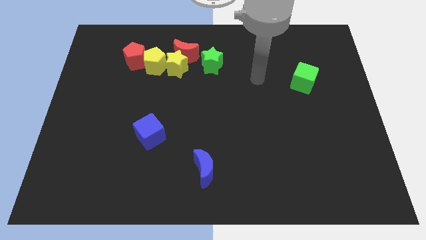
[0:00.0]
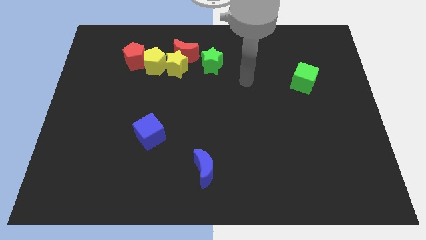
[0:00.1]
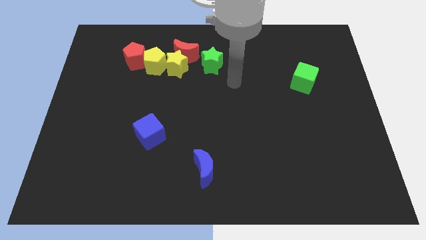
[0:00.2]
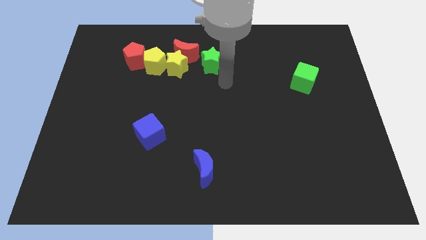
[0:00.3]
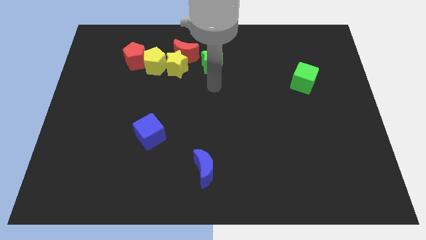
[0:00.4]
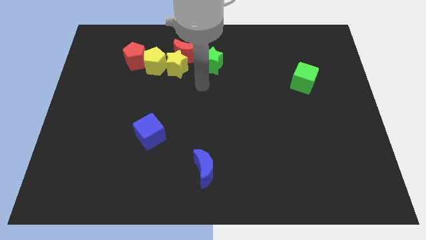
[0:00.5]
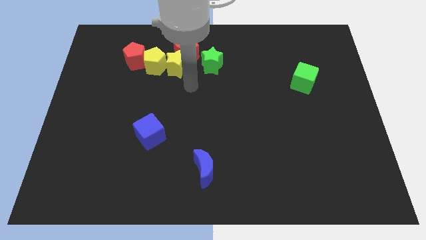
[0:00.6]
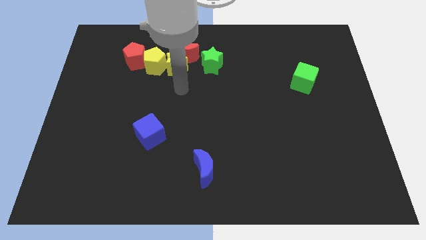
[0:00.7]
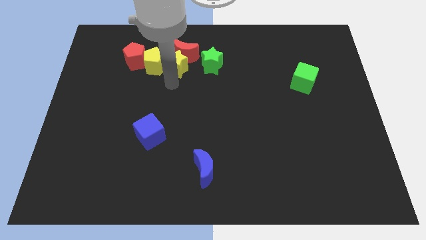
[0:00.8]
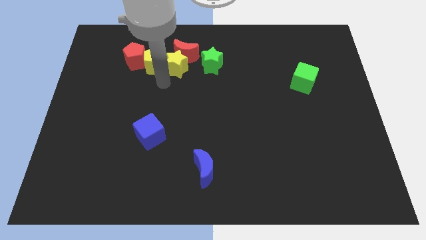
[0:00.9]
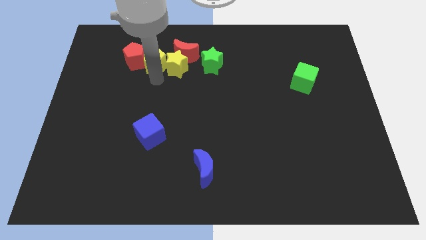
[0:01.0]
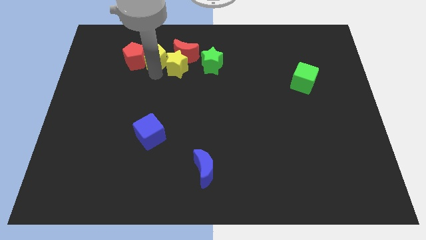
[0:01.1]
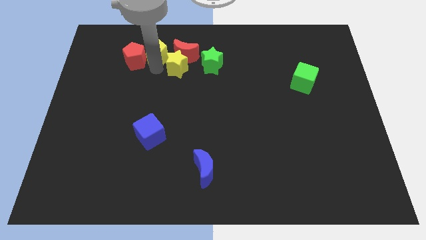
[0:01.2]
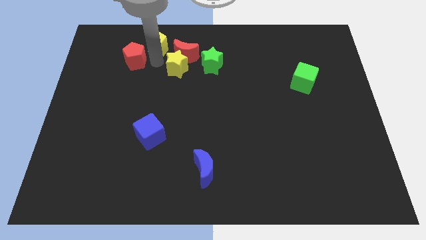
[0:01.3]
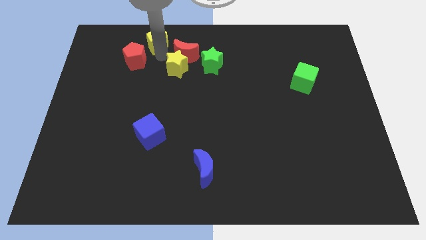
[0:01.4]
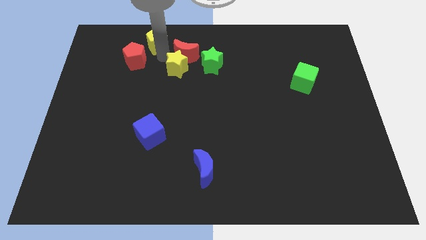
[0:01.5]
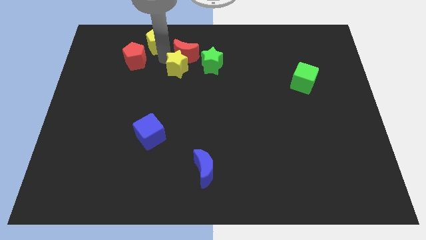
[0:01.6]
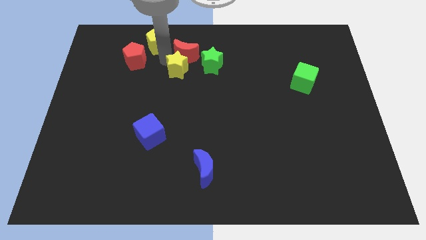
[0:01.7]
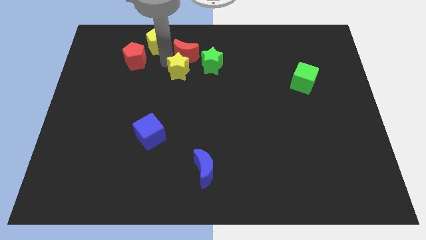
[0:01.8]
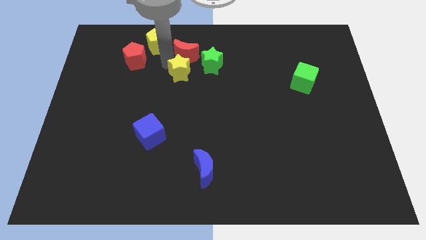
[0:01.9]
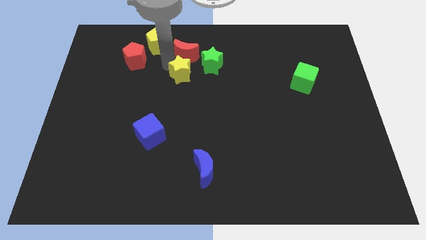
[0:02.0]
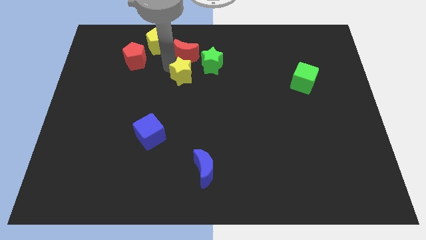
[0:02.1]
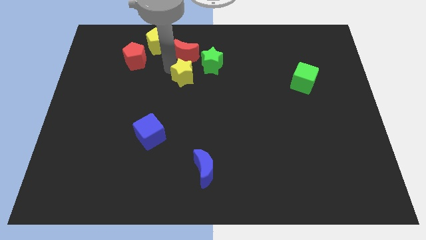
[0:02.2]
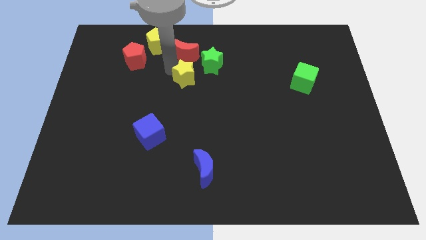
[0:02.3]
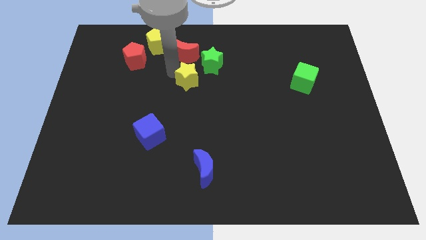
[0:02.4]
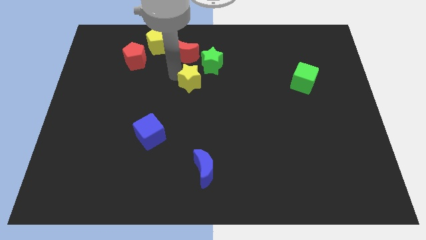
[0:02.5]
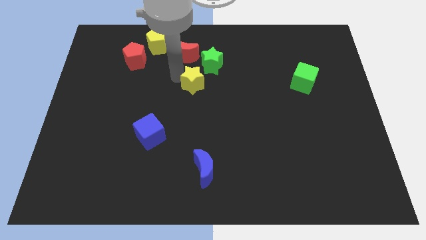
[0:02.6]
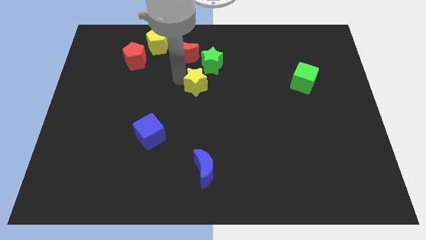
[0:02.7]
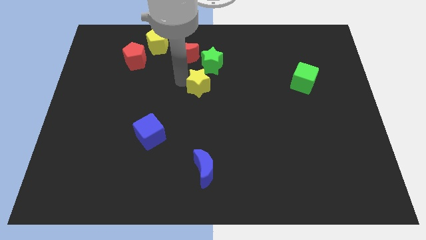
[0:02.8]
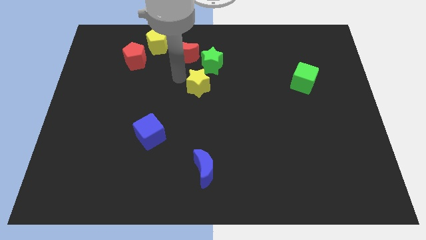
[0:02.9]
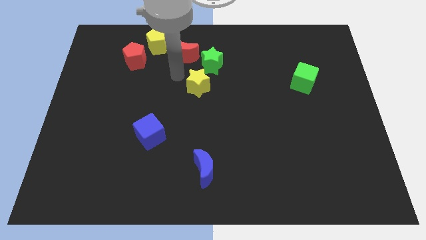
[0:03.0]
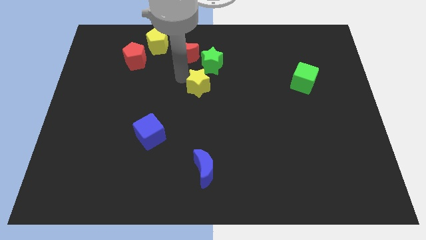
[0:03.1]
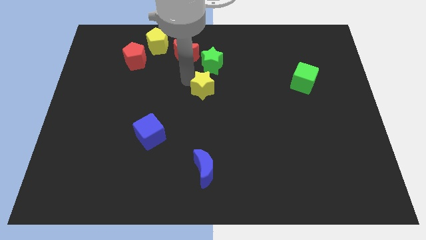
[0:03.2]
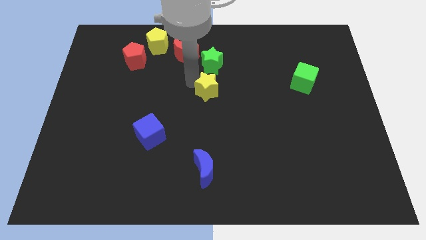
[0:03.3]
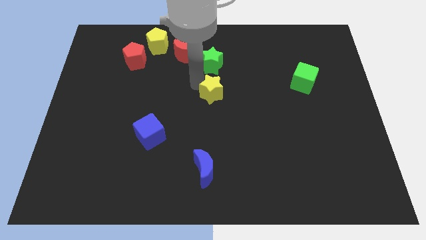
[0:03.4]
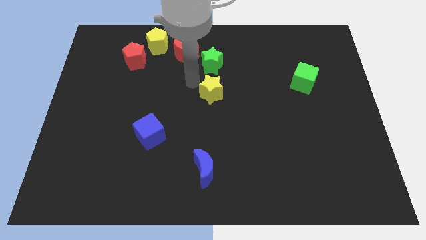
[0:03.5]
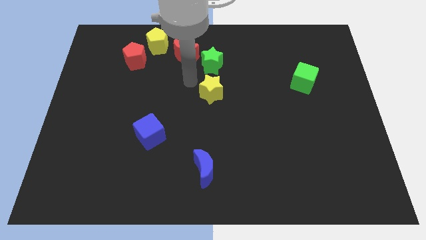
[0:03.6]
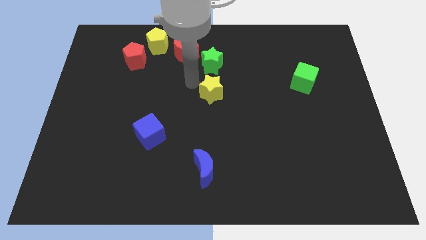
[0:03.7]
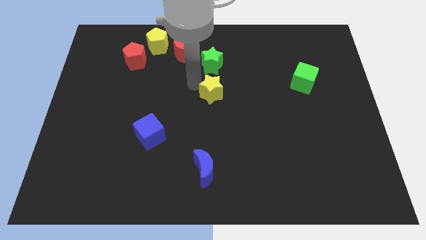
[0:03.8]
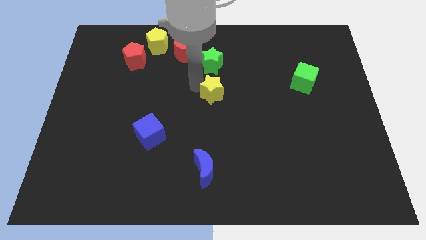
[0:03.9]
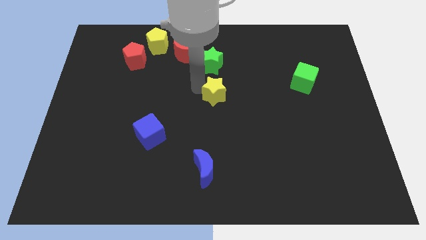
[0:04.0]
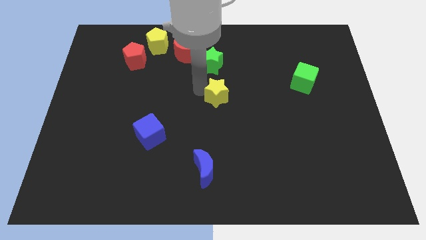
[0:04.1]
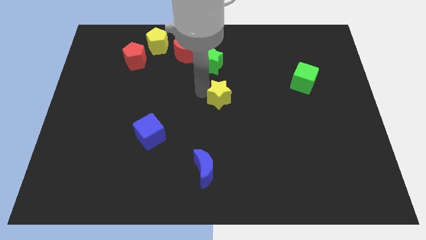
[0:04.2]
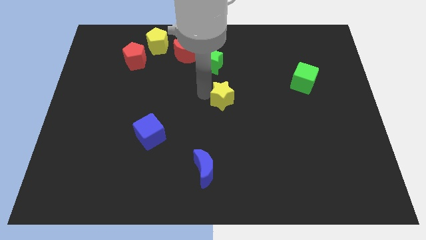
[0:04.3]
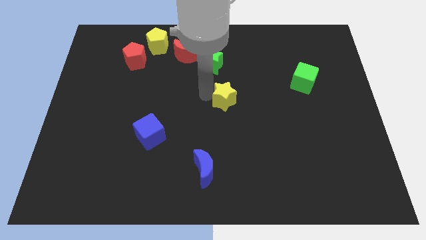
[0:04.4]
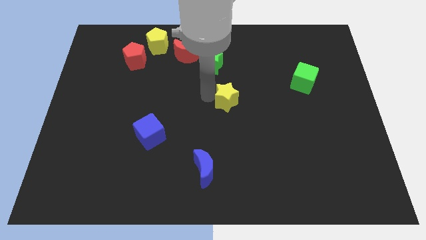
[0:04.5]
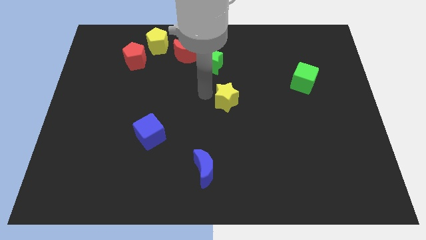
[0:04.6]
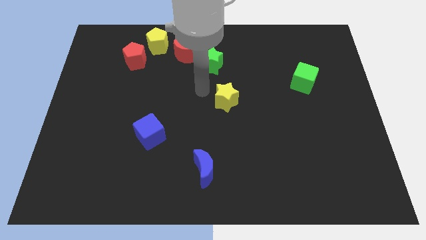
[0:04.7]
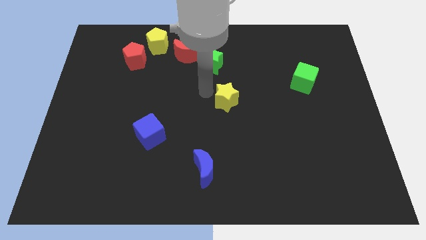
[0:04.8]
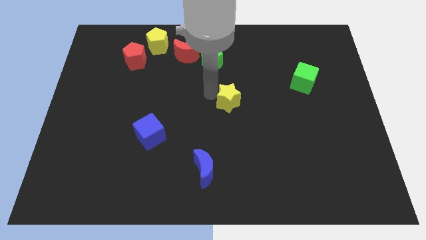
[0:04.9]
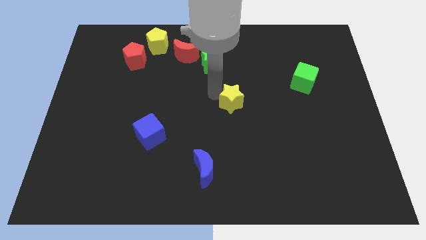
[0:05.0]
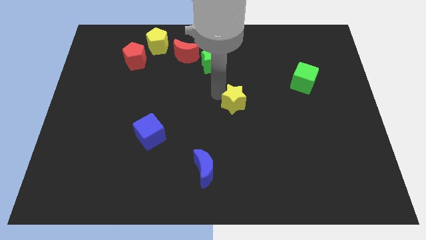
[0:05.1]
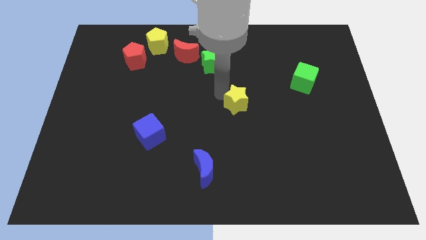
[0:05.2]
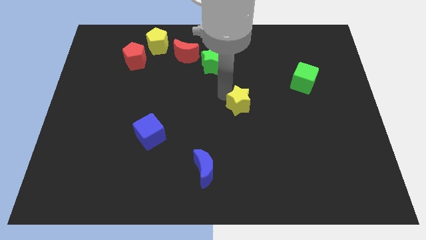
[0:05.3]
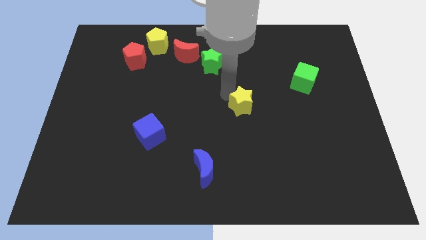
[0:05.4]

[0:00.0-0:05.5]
push the yellow star down and to the right

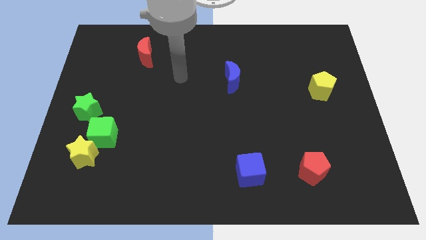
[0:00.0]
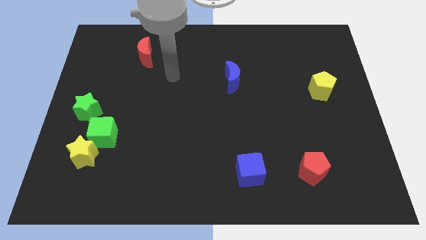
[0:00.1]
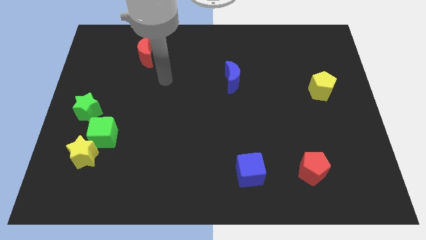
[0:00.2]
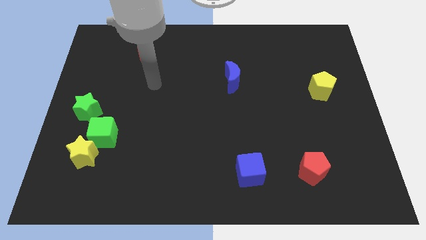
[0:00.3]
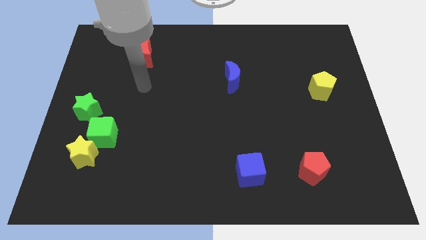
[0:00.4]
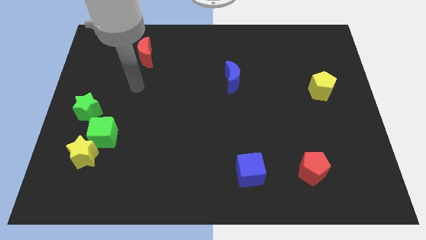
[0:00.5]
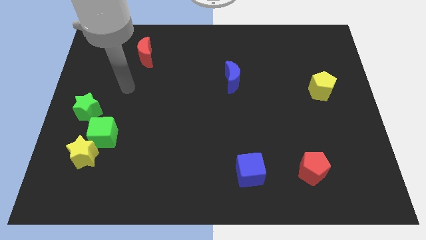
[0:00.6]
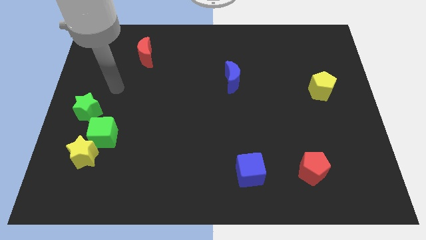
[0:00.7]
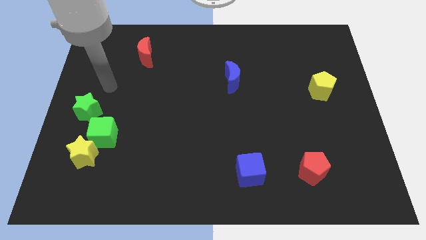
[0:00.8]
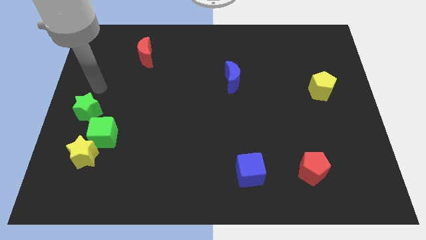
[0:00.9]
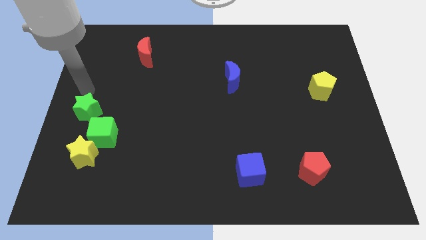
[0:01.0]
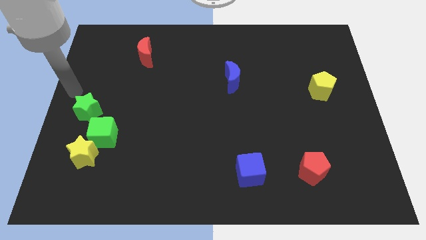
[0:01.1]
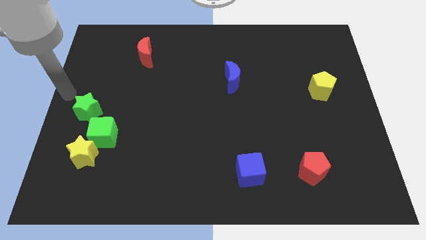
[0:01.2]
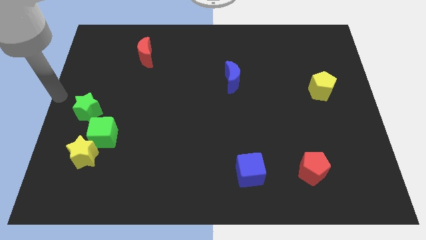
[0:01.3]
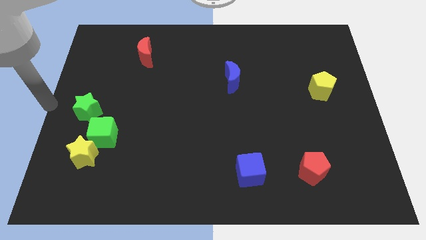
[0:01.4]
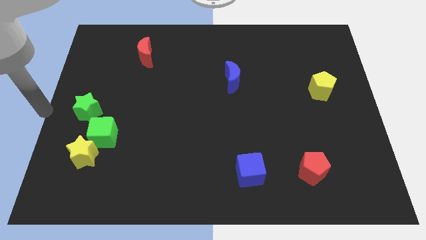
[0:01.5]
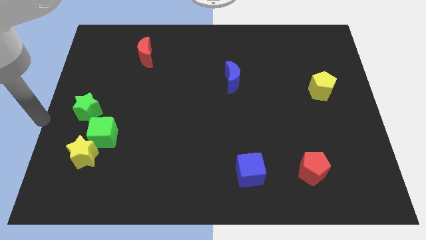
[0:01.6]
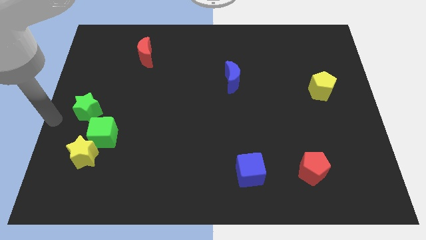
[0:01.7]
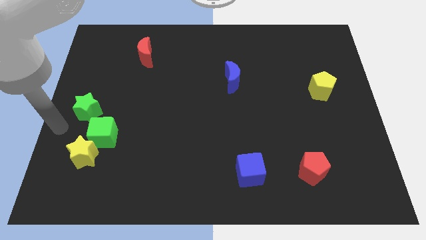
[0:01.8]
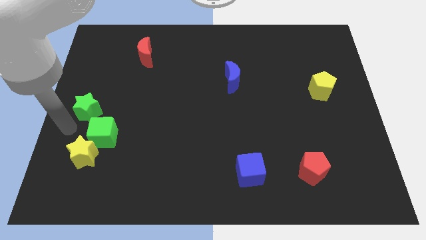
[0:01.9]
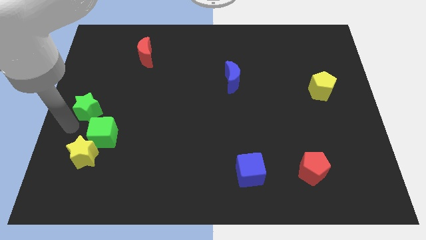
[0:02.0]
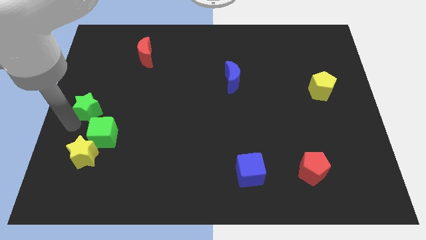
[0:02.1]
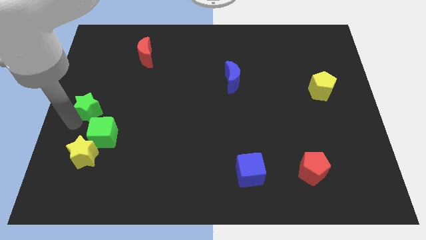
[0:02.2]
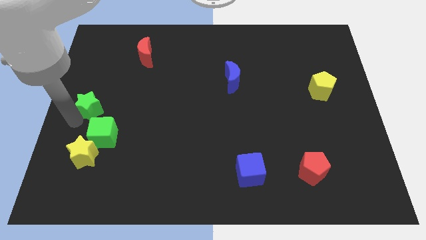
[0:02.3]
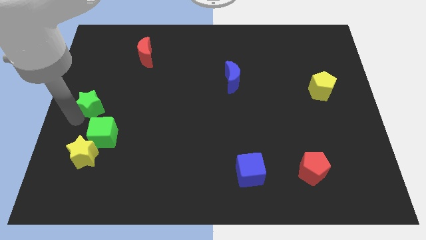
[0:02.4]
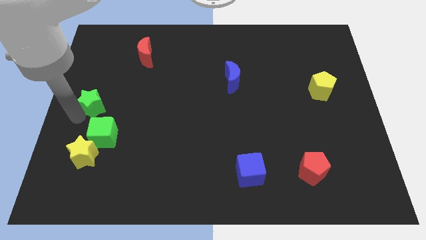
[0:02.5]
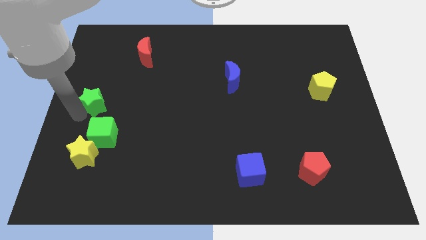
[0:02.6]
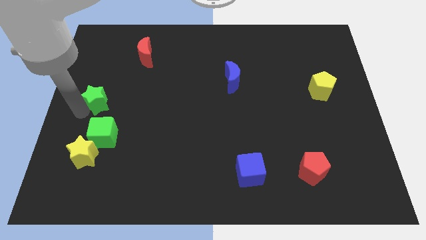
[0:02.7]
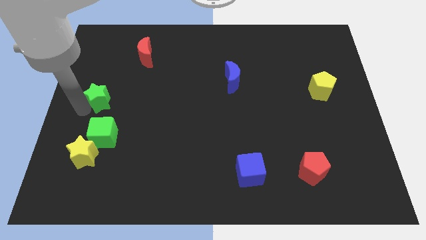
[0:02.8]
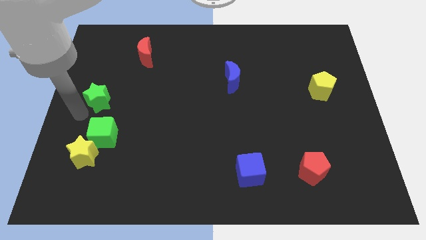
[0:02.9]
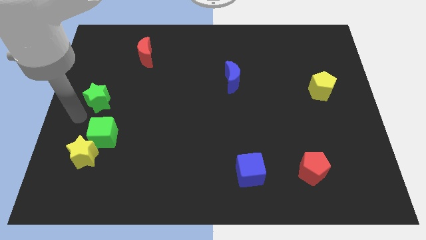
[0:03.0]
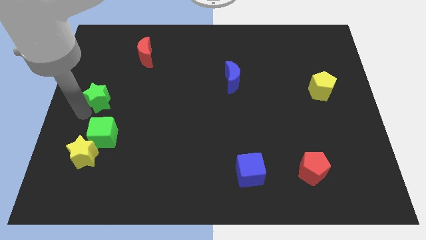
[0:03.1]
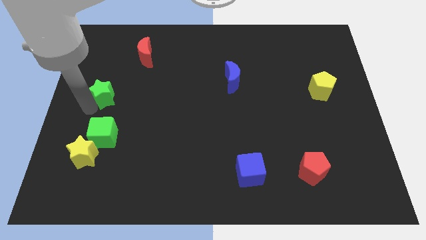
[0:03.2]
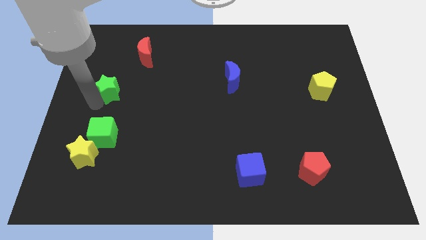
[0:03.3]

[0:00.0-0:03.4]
slightly slide the green star up and to the right
